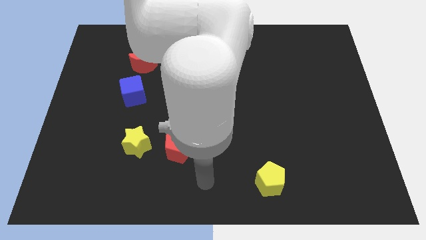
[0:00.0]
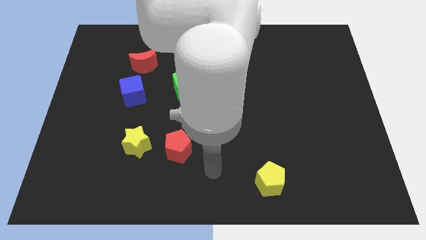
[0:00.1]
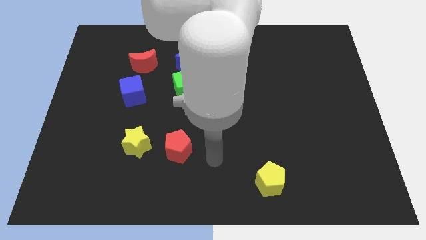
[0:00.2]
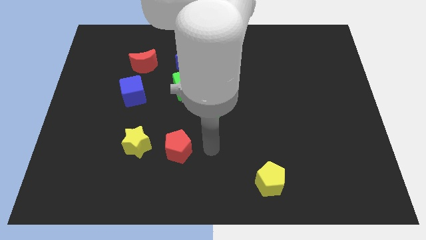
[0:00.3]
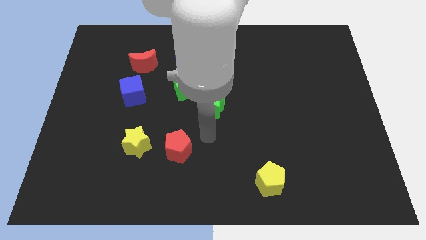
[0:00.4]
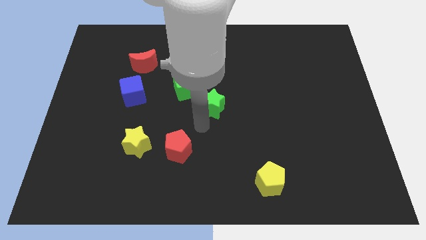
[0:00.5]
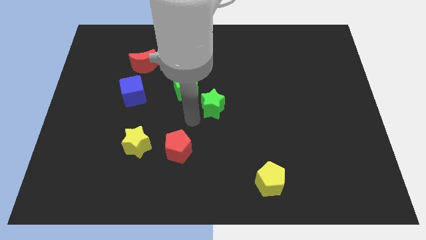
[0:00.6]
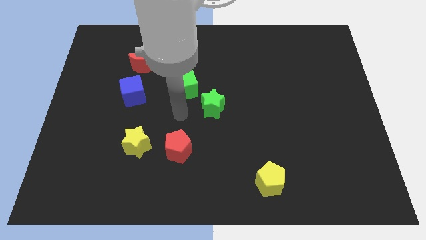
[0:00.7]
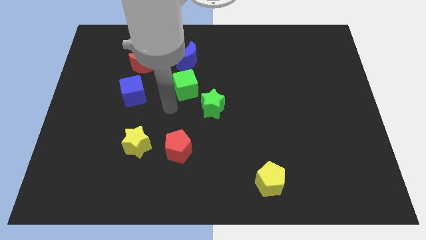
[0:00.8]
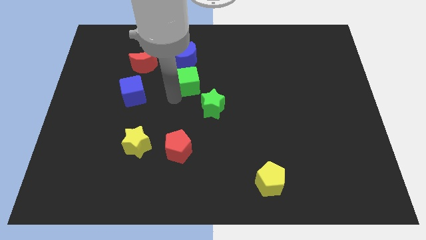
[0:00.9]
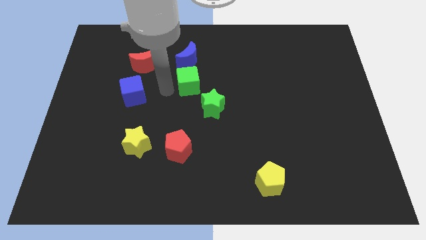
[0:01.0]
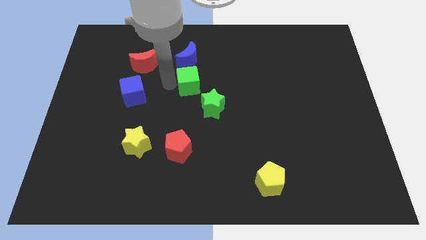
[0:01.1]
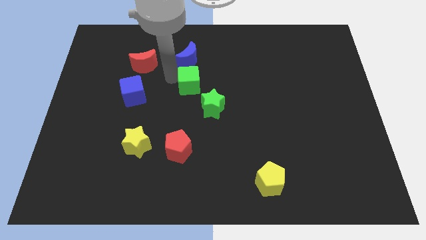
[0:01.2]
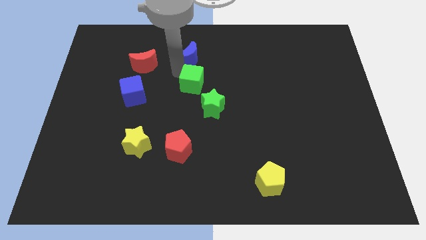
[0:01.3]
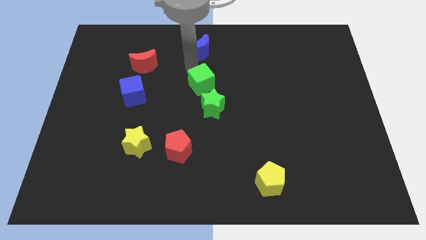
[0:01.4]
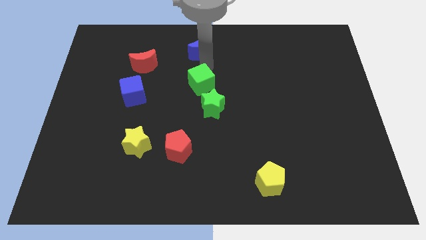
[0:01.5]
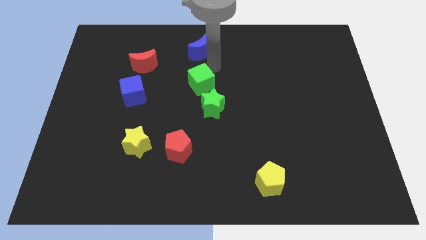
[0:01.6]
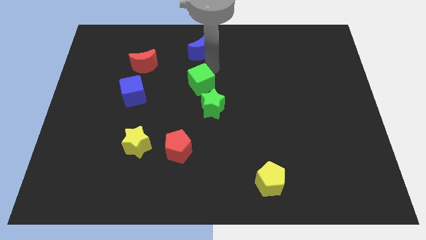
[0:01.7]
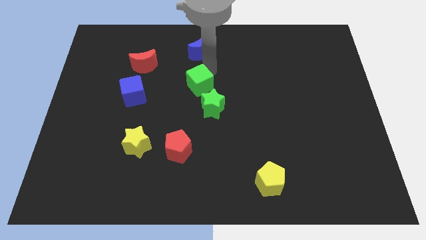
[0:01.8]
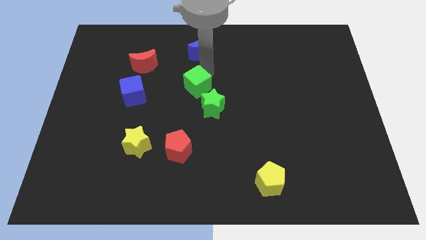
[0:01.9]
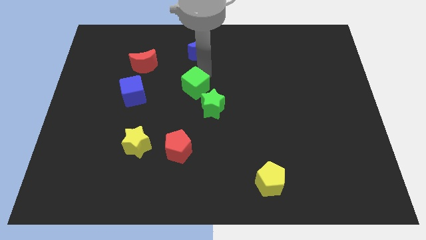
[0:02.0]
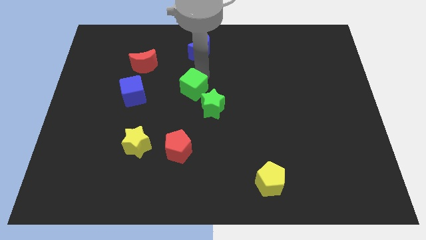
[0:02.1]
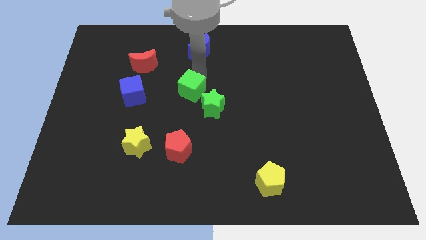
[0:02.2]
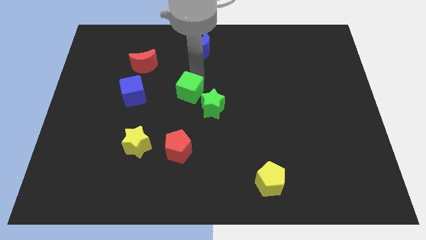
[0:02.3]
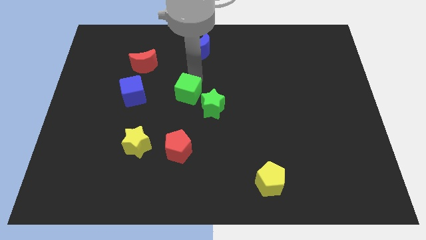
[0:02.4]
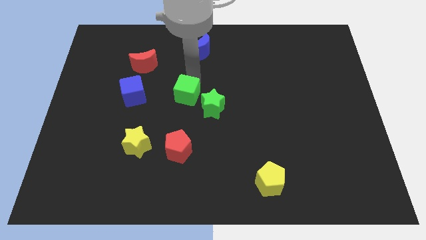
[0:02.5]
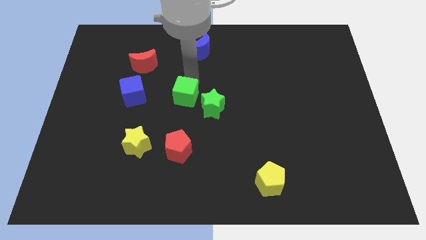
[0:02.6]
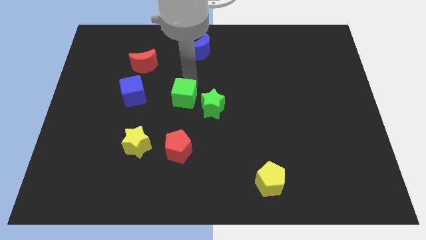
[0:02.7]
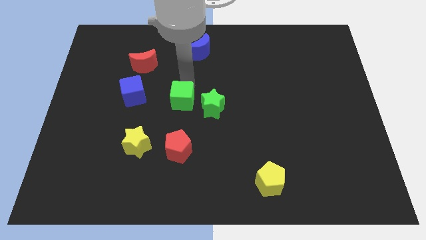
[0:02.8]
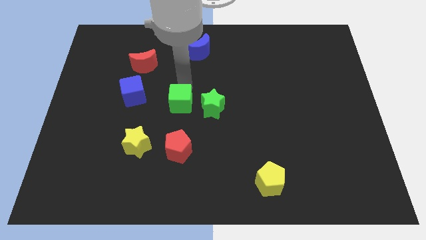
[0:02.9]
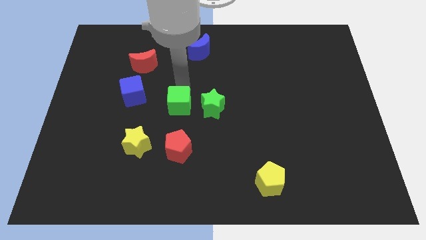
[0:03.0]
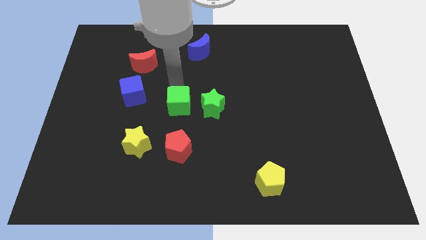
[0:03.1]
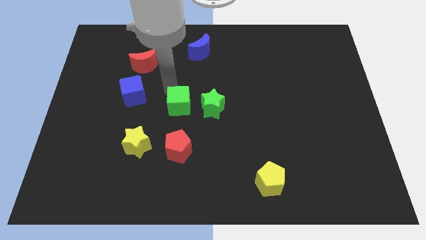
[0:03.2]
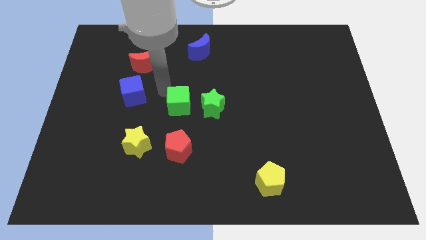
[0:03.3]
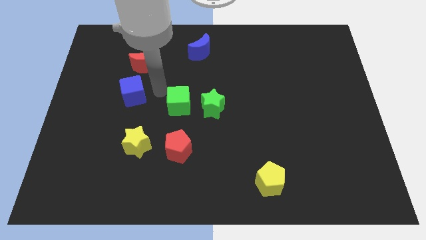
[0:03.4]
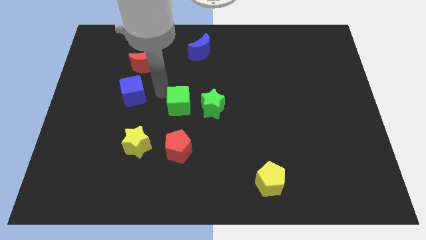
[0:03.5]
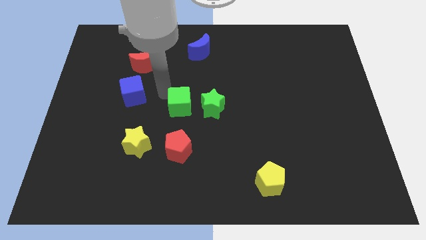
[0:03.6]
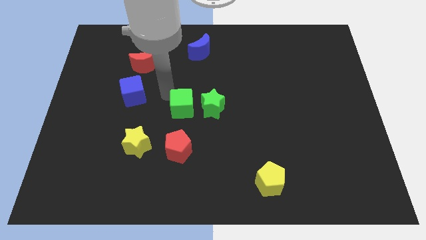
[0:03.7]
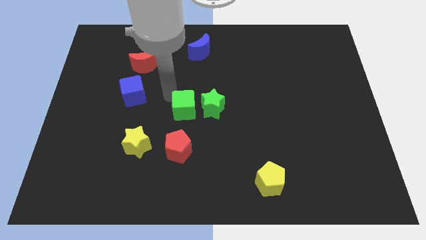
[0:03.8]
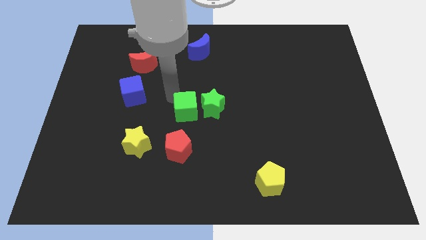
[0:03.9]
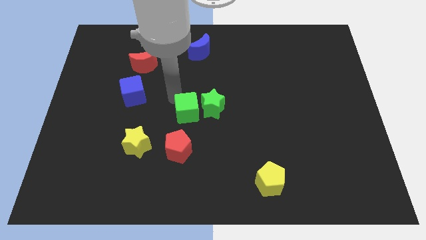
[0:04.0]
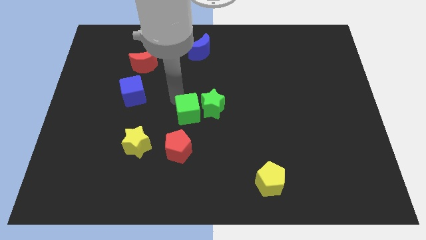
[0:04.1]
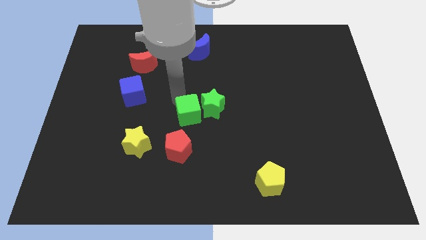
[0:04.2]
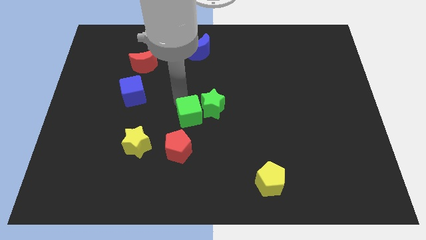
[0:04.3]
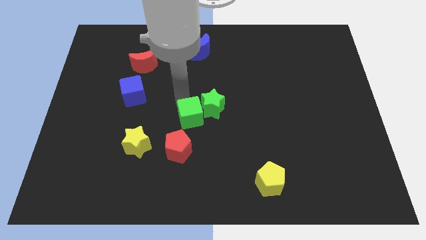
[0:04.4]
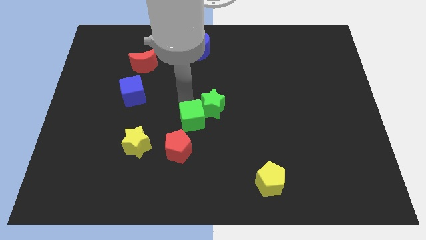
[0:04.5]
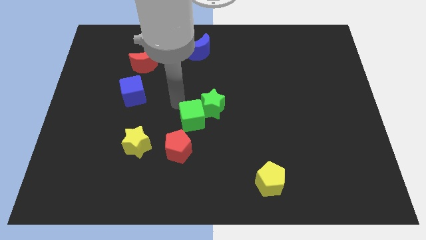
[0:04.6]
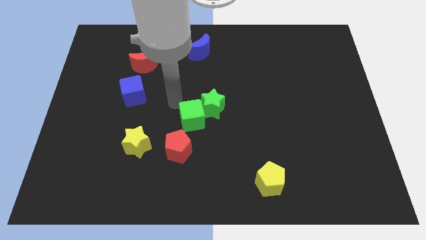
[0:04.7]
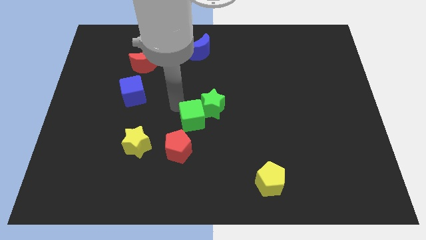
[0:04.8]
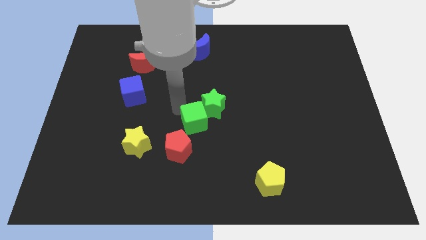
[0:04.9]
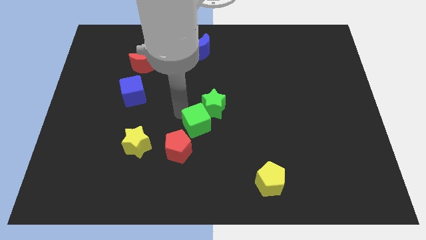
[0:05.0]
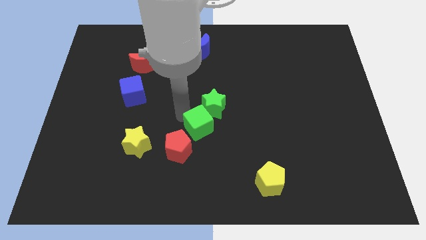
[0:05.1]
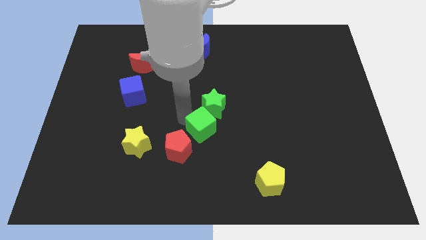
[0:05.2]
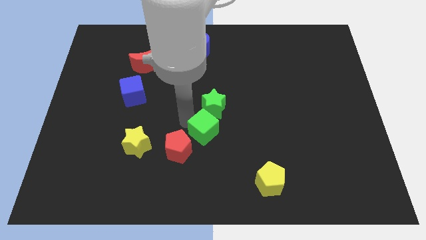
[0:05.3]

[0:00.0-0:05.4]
push the green cube right of the red pentagon

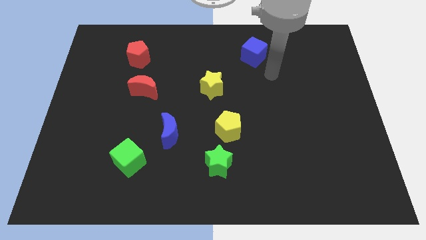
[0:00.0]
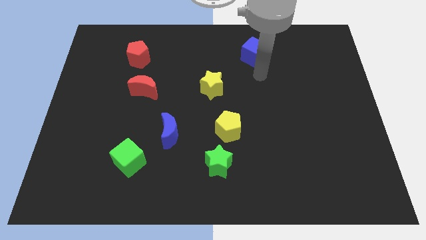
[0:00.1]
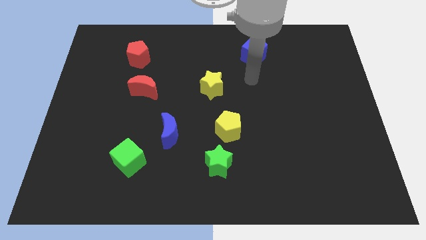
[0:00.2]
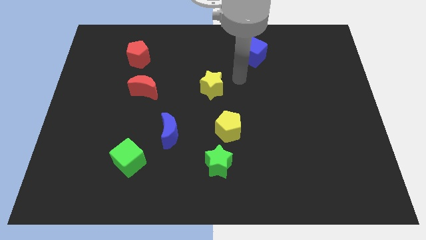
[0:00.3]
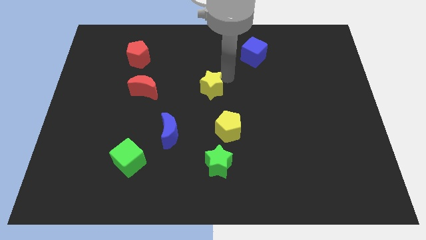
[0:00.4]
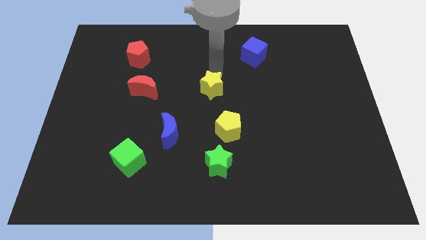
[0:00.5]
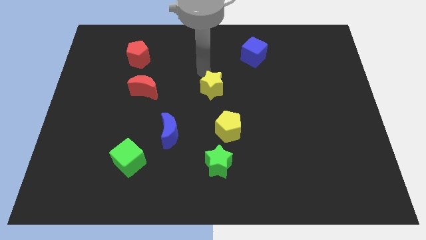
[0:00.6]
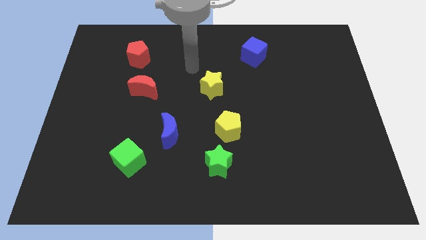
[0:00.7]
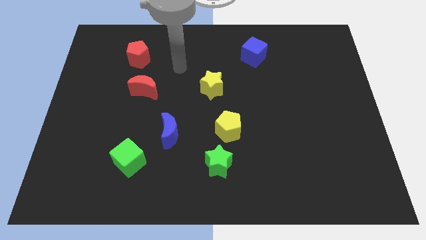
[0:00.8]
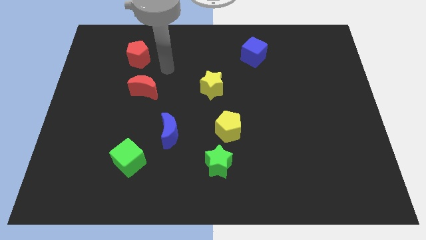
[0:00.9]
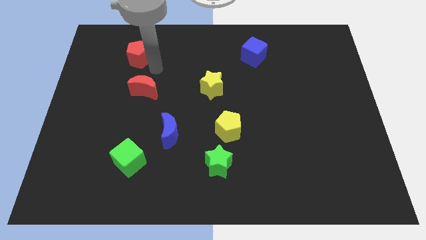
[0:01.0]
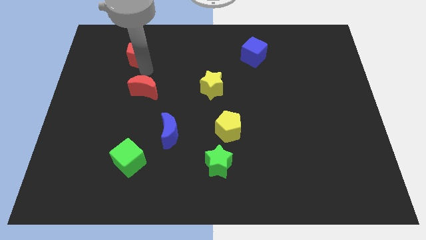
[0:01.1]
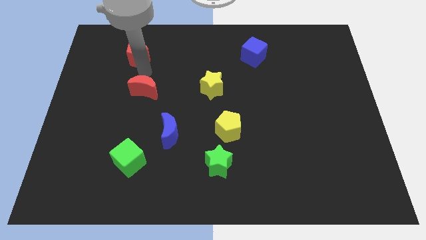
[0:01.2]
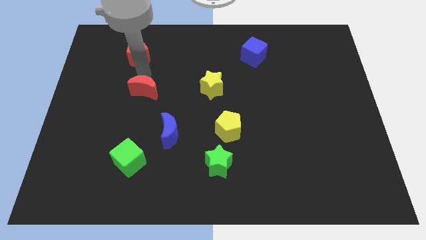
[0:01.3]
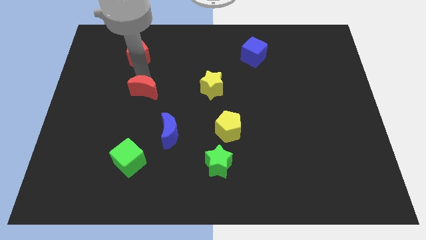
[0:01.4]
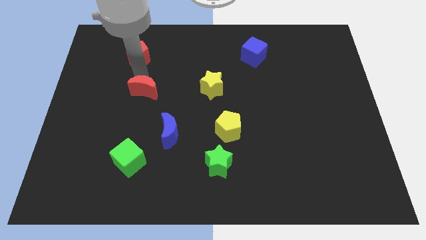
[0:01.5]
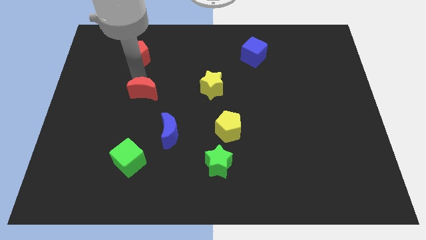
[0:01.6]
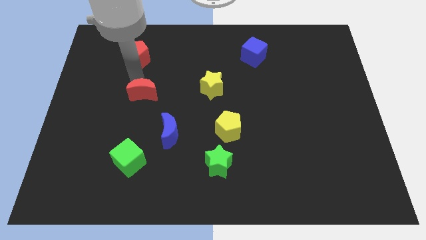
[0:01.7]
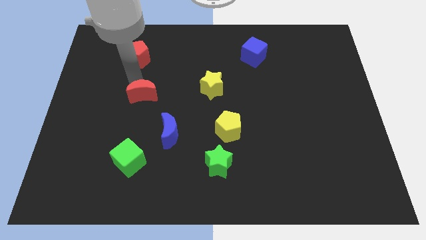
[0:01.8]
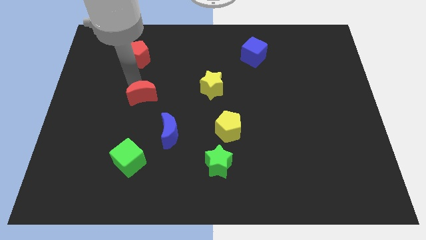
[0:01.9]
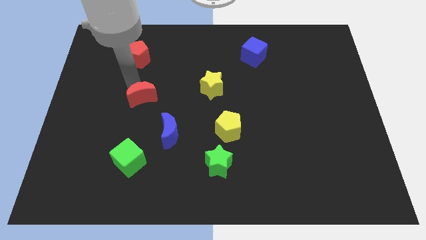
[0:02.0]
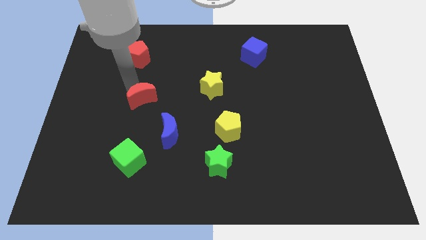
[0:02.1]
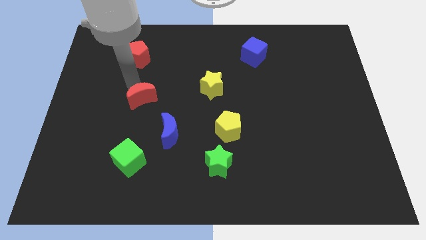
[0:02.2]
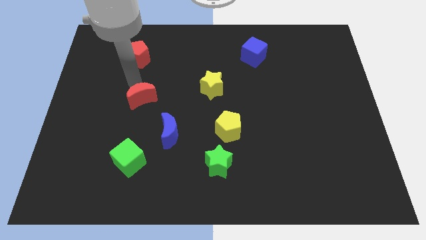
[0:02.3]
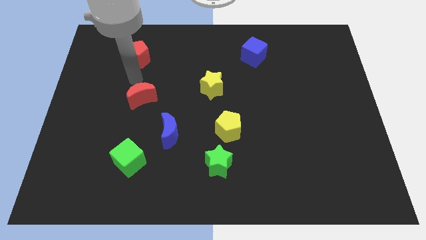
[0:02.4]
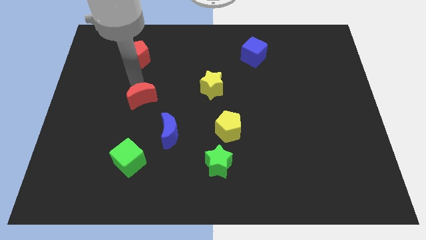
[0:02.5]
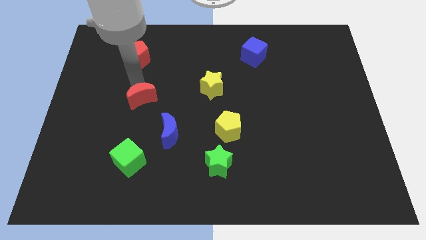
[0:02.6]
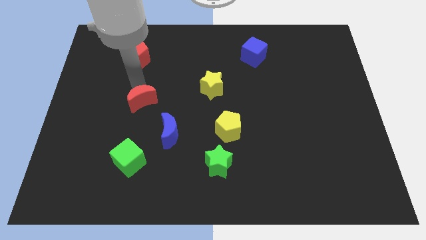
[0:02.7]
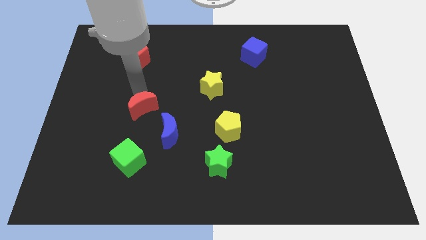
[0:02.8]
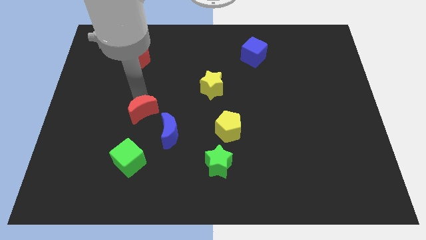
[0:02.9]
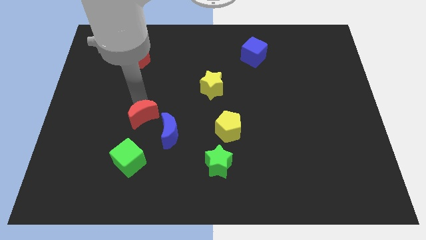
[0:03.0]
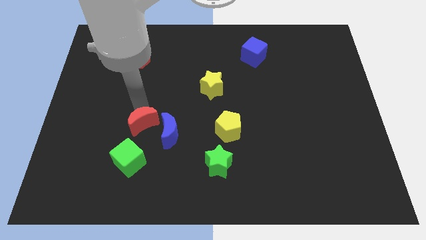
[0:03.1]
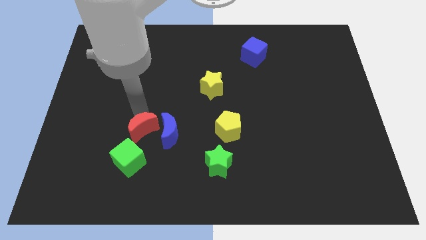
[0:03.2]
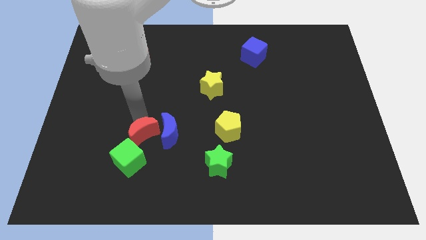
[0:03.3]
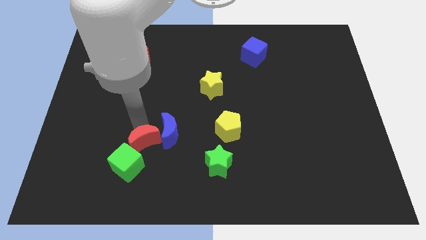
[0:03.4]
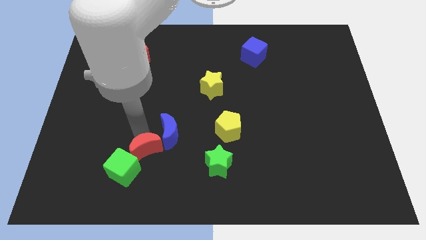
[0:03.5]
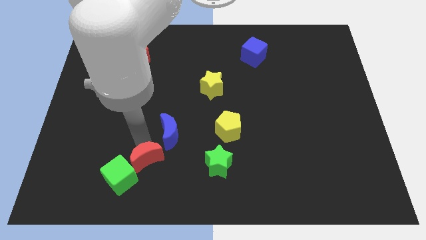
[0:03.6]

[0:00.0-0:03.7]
put the red moon to the bottom side of the blue moon
